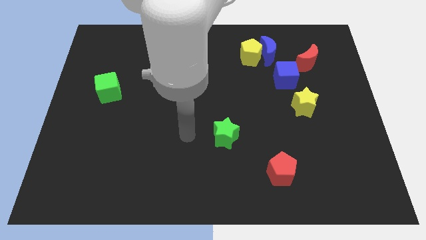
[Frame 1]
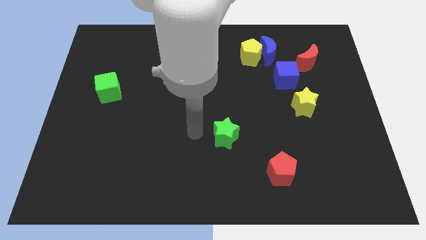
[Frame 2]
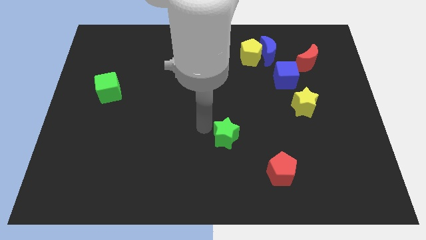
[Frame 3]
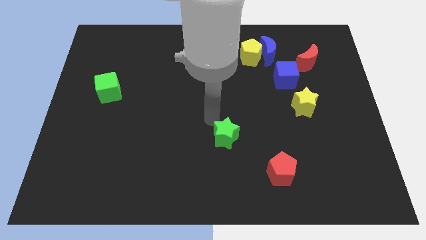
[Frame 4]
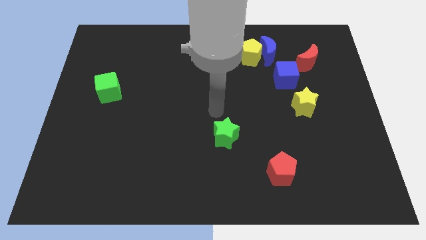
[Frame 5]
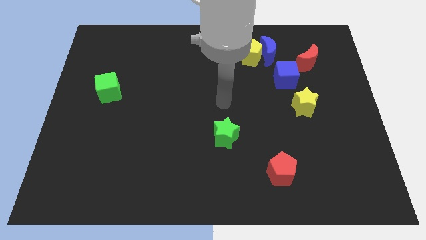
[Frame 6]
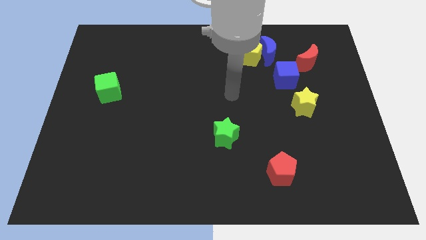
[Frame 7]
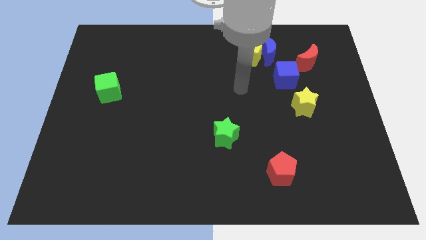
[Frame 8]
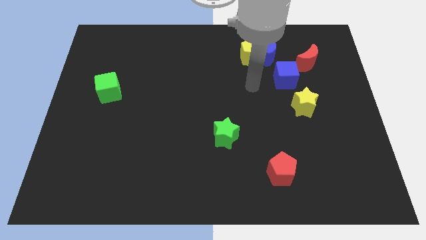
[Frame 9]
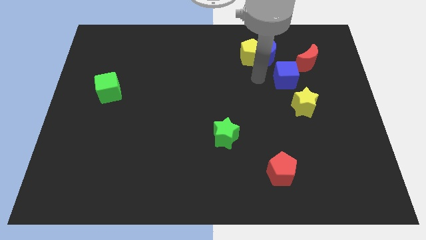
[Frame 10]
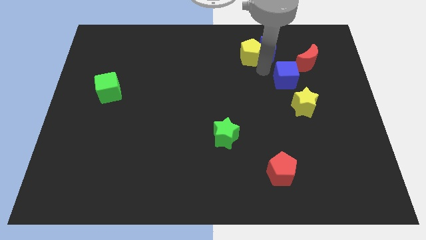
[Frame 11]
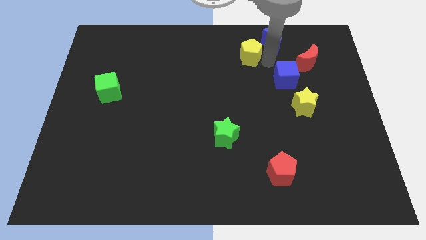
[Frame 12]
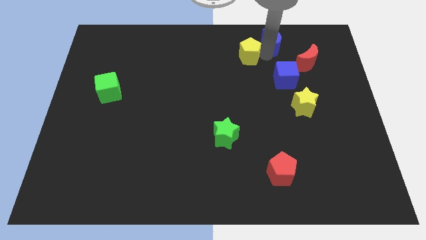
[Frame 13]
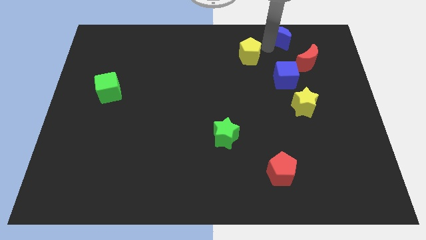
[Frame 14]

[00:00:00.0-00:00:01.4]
separate the yellow pentagon from the blue moon

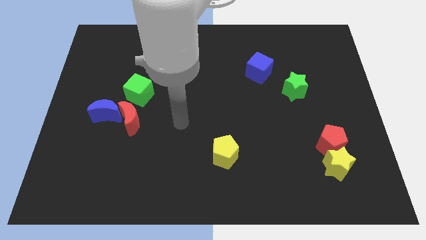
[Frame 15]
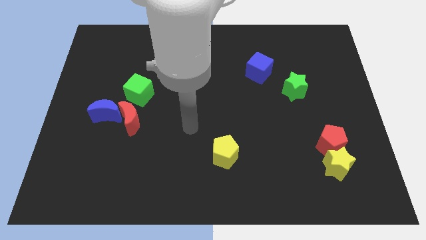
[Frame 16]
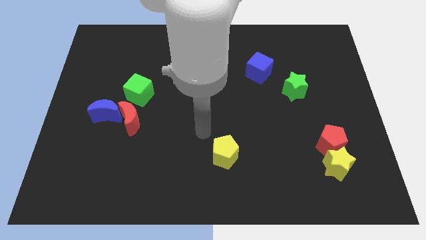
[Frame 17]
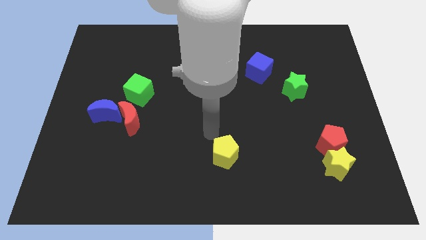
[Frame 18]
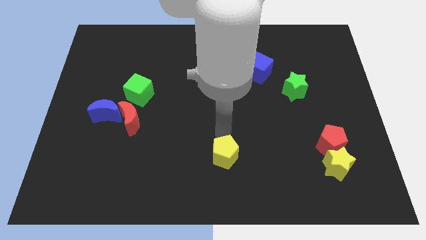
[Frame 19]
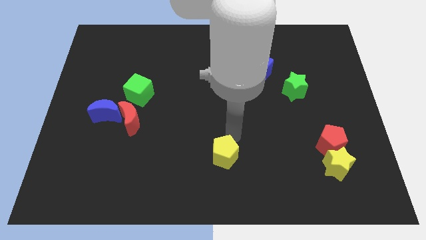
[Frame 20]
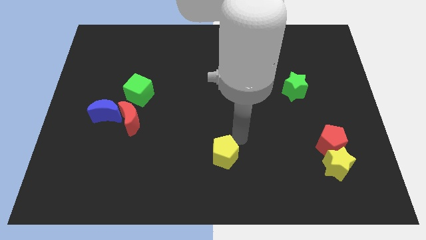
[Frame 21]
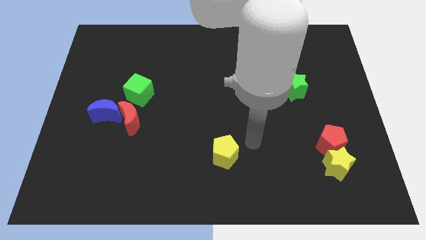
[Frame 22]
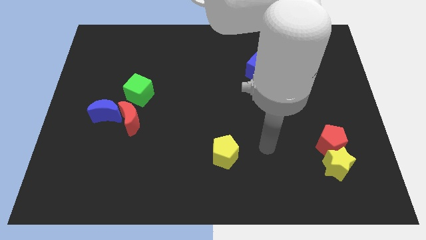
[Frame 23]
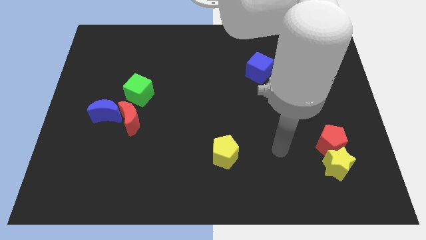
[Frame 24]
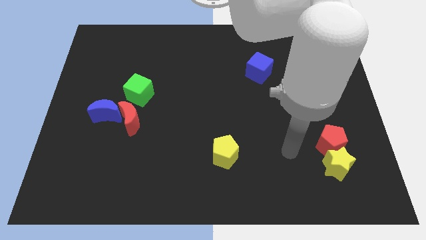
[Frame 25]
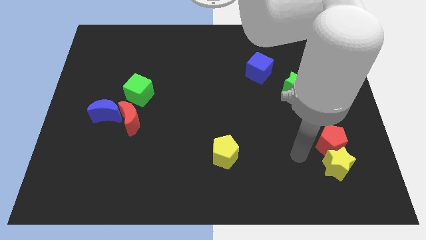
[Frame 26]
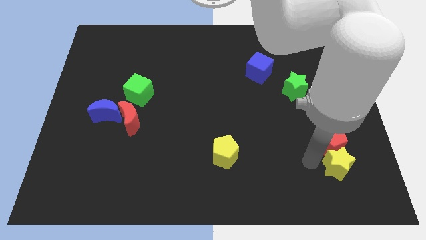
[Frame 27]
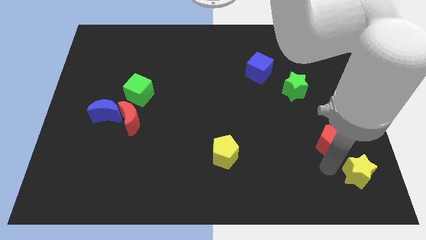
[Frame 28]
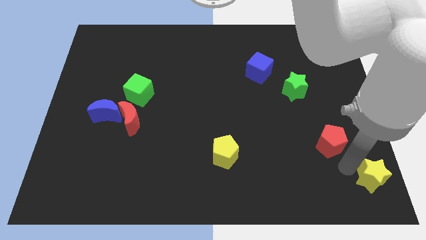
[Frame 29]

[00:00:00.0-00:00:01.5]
pull the red pentagon apart from the yellow star

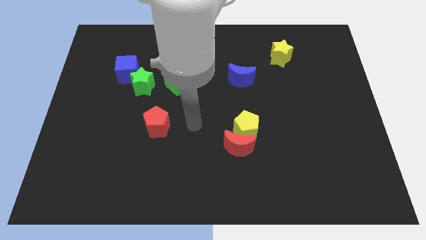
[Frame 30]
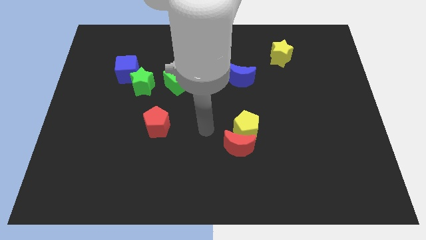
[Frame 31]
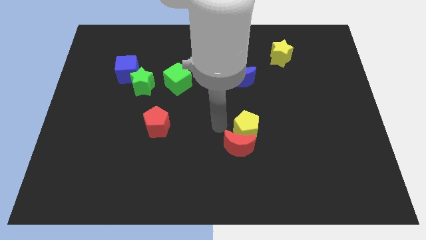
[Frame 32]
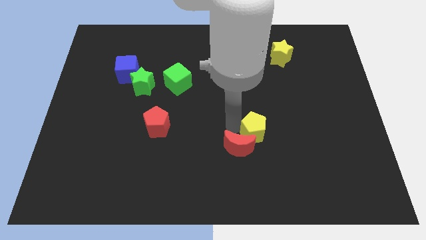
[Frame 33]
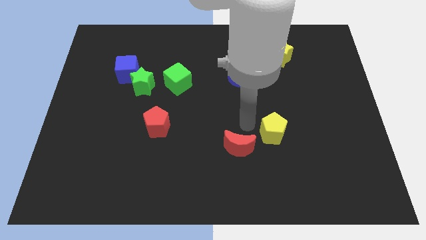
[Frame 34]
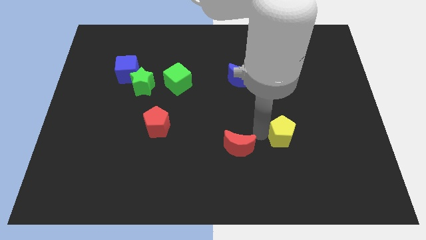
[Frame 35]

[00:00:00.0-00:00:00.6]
move the red moon away from the yellow pentagon

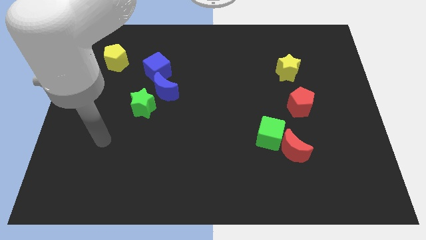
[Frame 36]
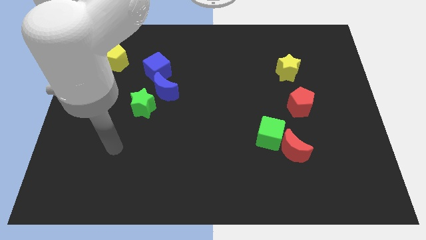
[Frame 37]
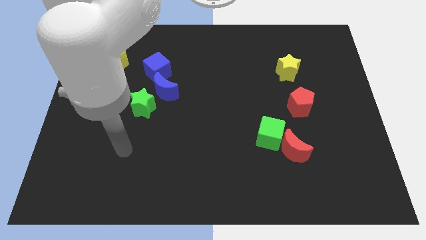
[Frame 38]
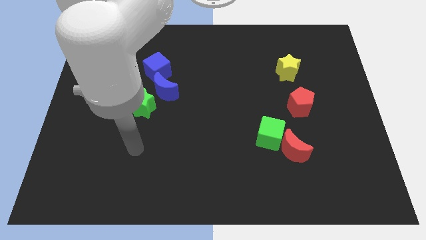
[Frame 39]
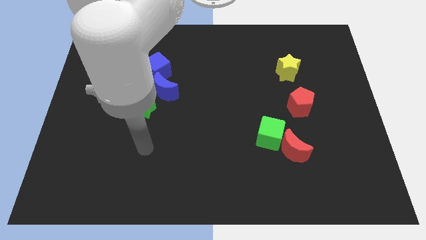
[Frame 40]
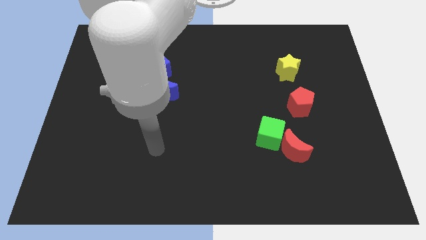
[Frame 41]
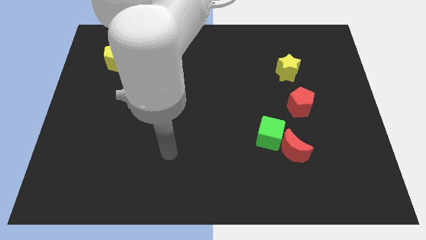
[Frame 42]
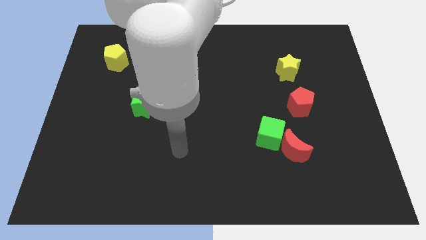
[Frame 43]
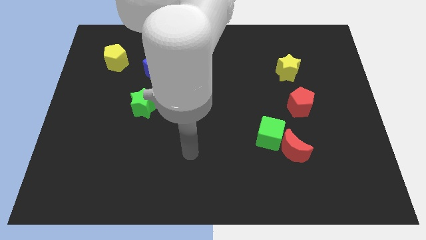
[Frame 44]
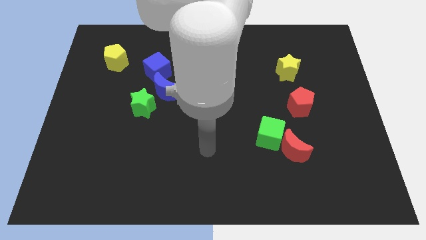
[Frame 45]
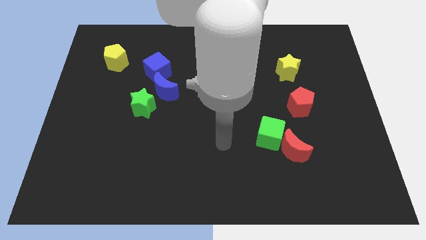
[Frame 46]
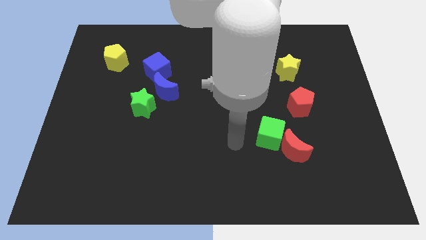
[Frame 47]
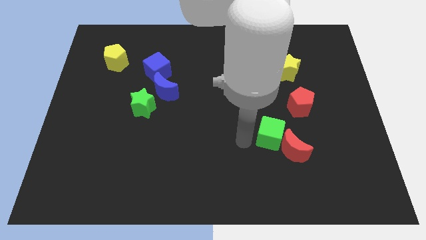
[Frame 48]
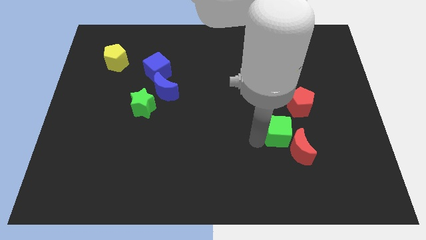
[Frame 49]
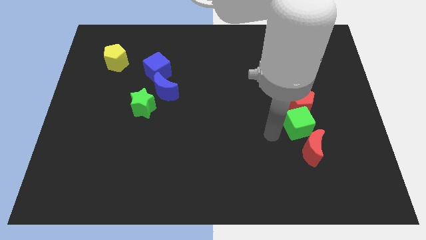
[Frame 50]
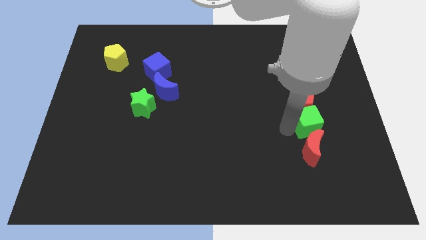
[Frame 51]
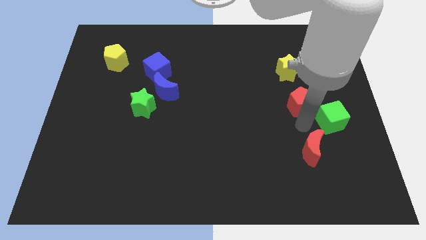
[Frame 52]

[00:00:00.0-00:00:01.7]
move the red moon away from the green cube

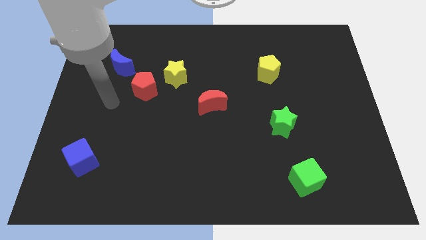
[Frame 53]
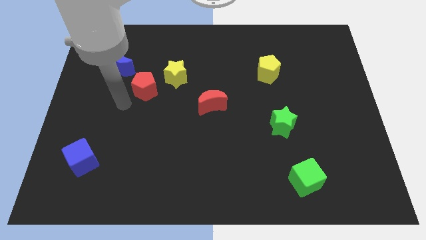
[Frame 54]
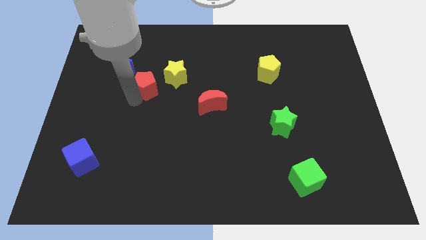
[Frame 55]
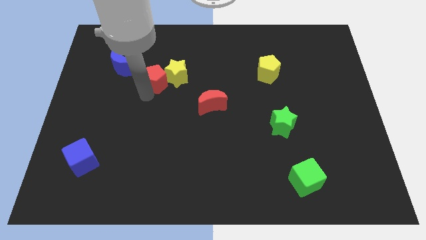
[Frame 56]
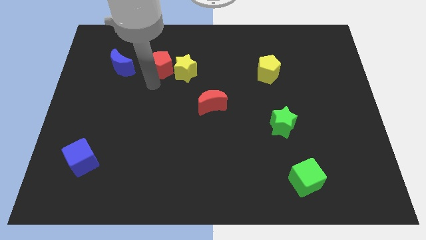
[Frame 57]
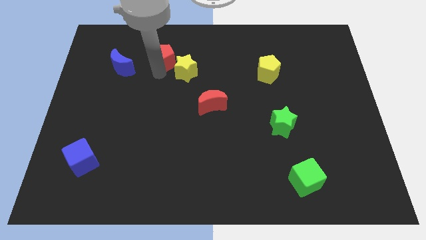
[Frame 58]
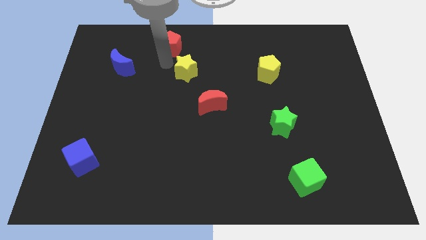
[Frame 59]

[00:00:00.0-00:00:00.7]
separate the yellow star from the red pentagon

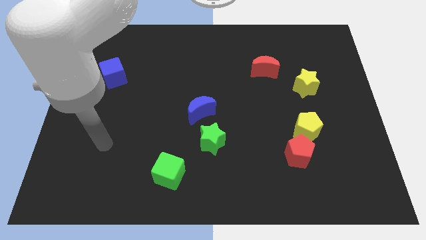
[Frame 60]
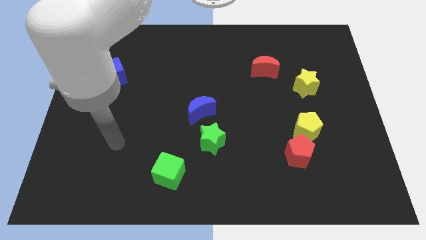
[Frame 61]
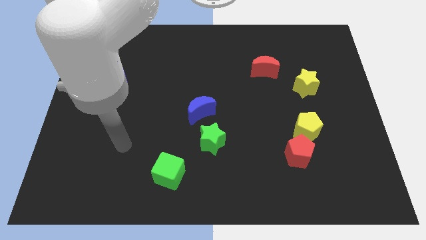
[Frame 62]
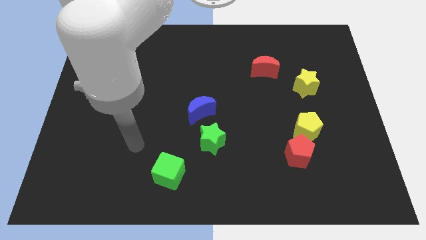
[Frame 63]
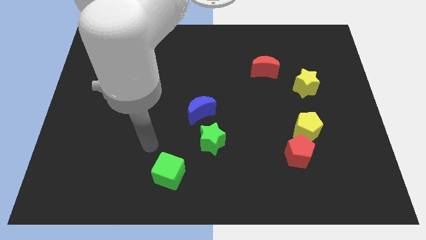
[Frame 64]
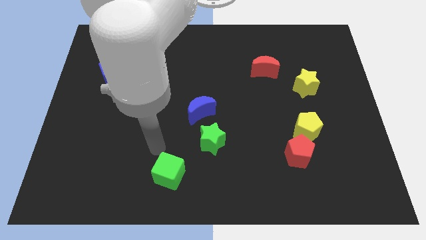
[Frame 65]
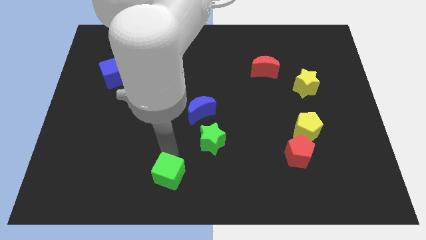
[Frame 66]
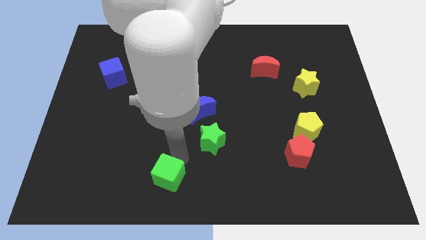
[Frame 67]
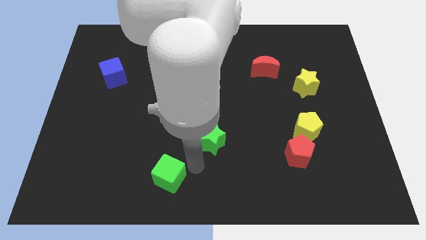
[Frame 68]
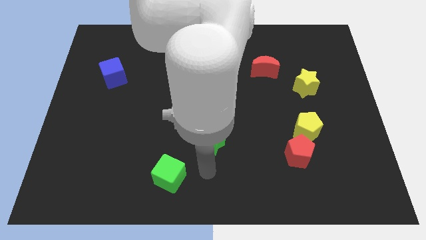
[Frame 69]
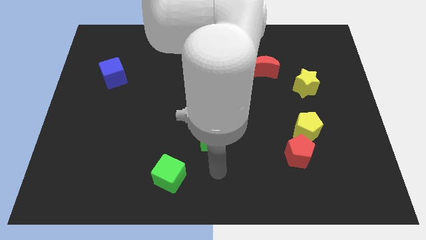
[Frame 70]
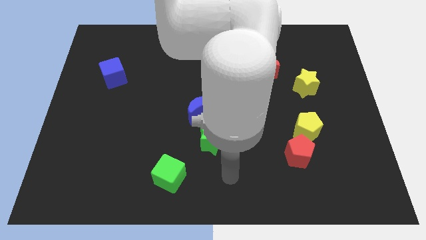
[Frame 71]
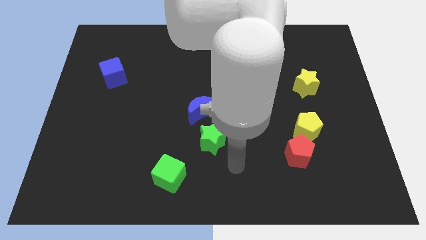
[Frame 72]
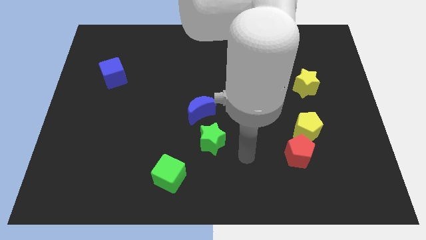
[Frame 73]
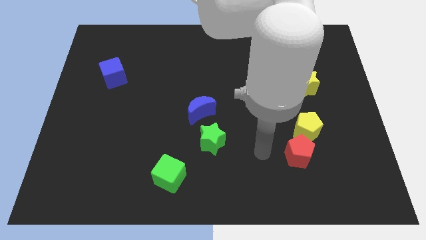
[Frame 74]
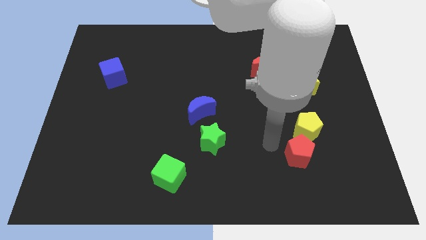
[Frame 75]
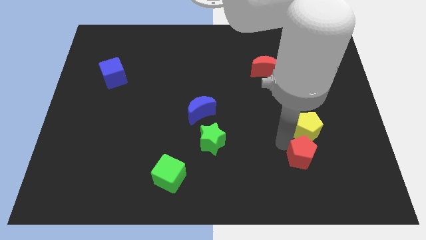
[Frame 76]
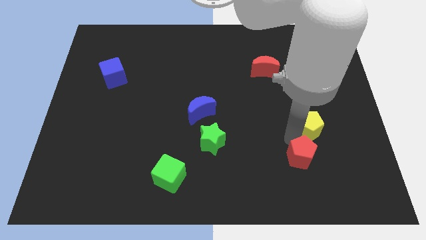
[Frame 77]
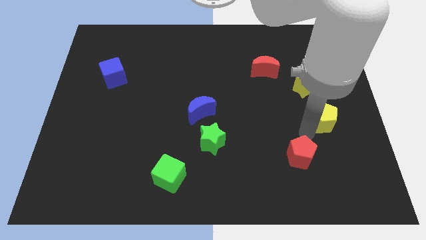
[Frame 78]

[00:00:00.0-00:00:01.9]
separate the red pentagon from the yellow pentagon

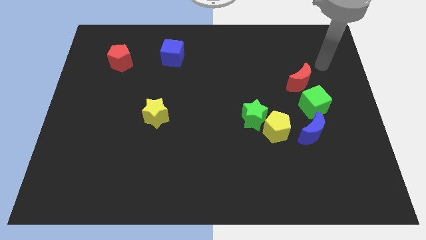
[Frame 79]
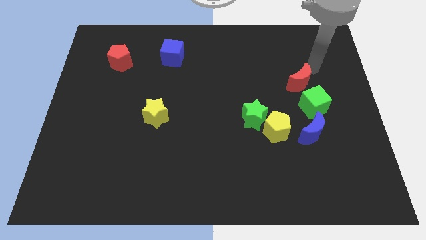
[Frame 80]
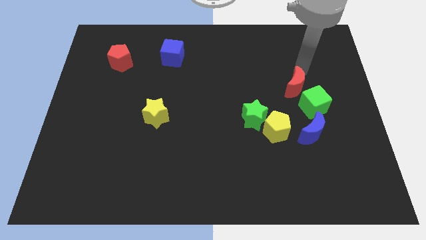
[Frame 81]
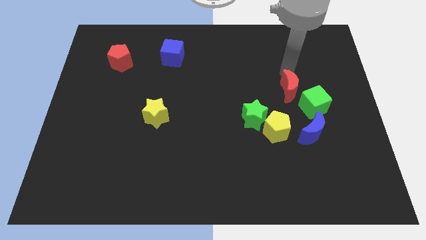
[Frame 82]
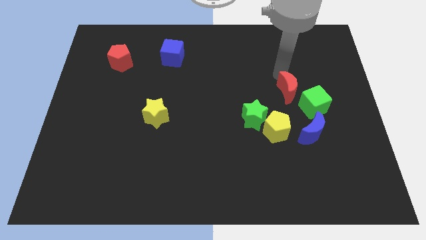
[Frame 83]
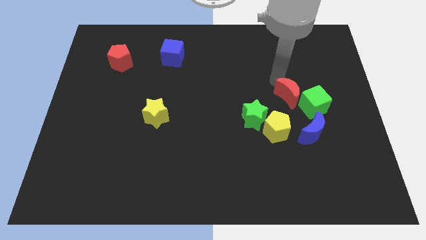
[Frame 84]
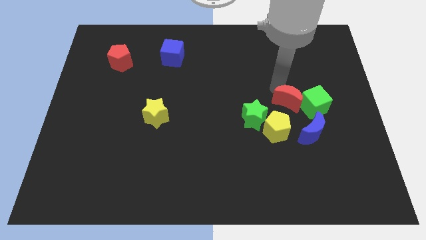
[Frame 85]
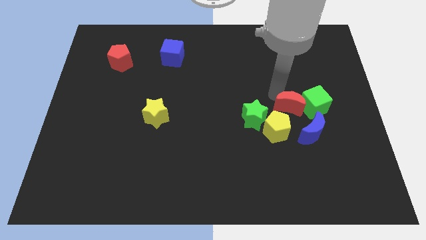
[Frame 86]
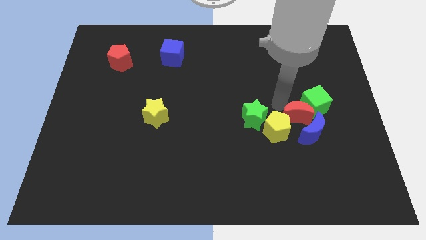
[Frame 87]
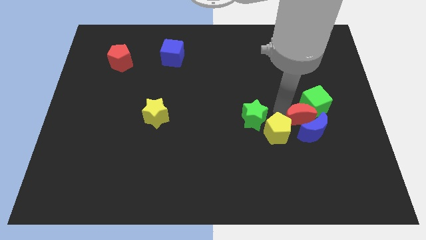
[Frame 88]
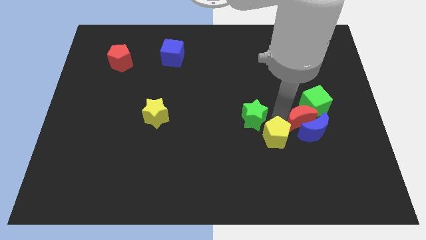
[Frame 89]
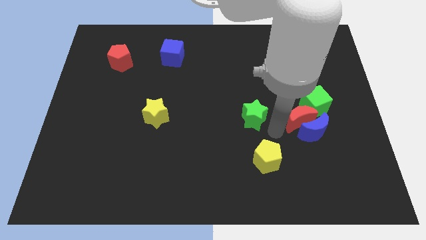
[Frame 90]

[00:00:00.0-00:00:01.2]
separate the green star from the yellow pentagon
